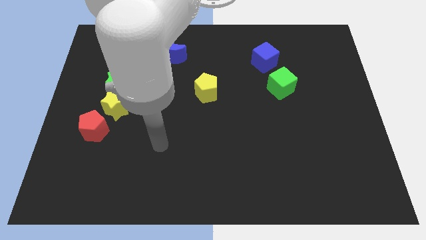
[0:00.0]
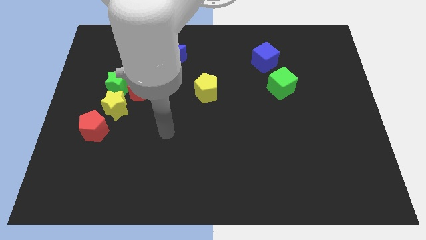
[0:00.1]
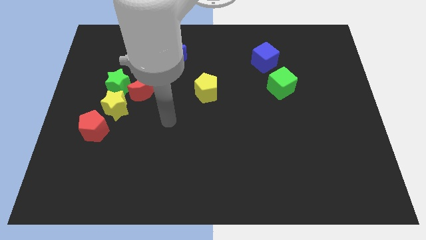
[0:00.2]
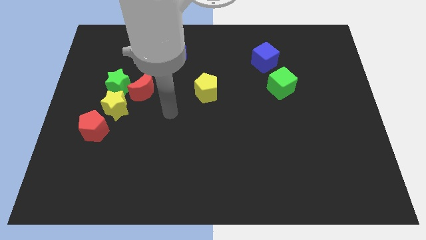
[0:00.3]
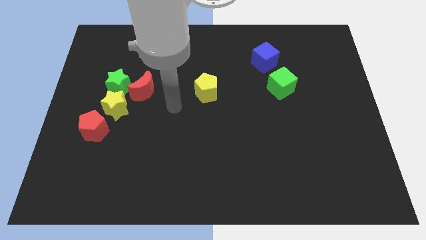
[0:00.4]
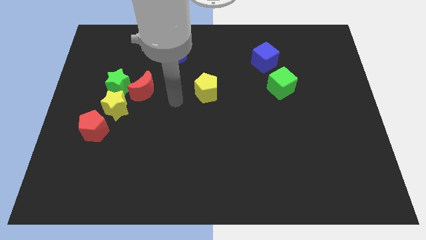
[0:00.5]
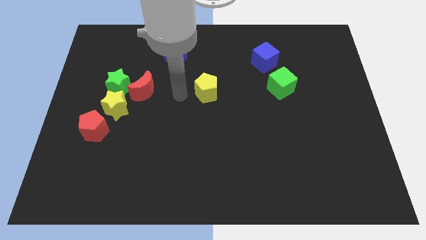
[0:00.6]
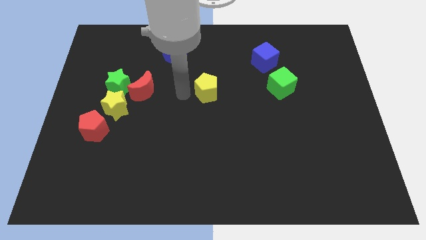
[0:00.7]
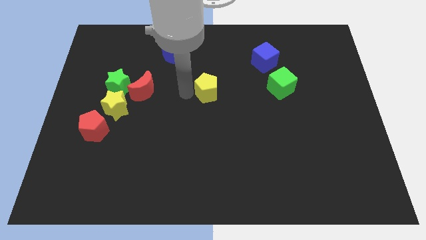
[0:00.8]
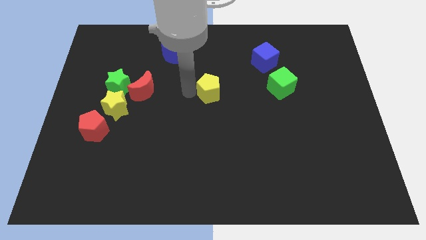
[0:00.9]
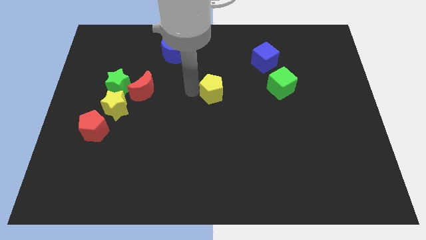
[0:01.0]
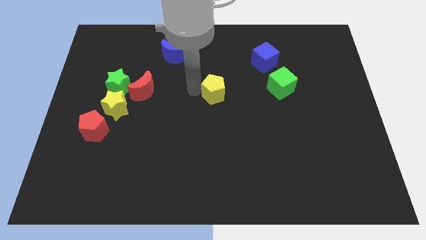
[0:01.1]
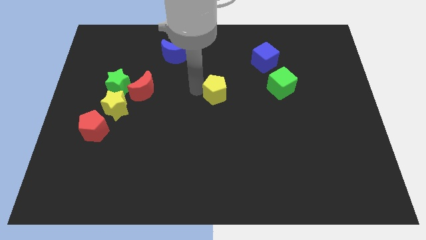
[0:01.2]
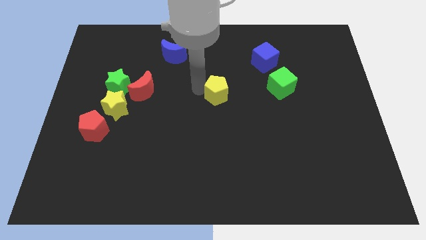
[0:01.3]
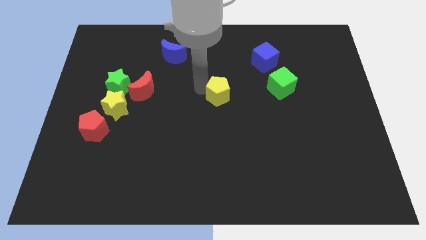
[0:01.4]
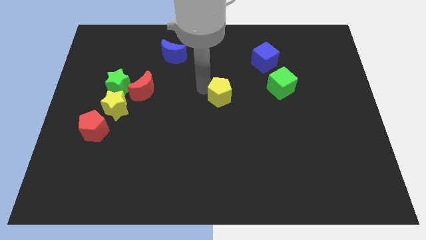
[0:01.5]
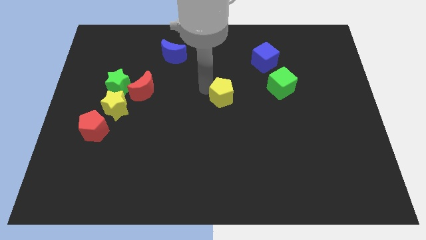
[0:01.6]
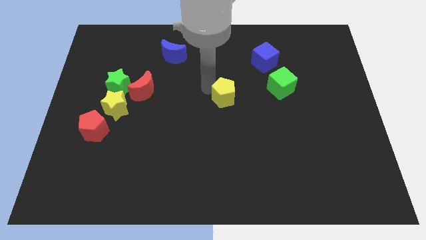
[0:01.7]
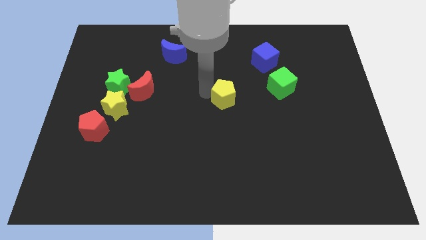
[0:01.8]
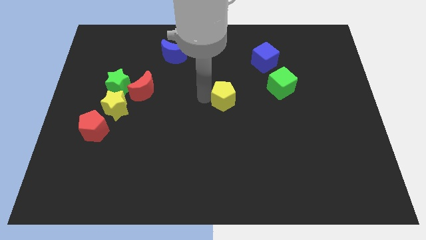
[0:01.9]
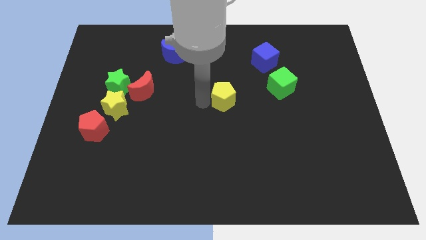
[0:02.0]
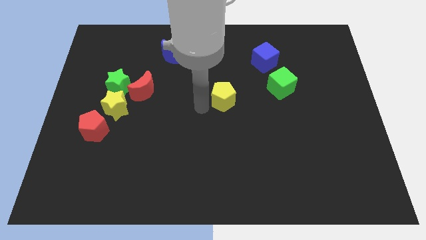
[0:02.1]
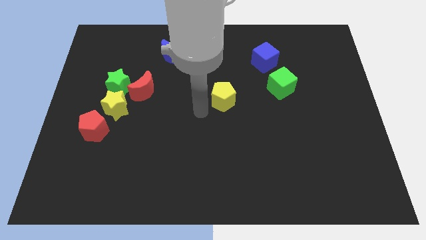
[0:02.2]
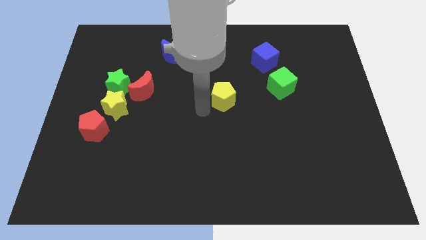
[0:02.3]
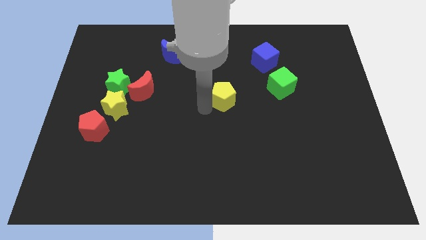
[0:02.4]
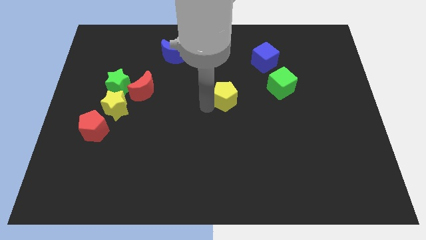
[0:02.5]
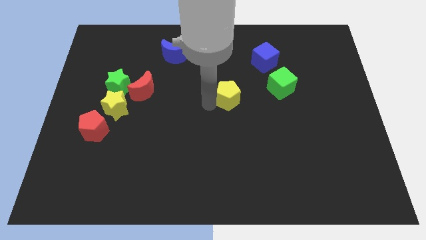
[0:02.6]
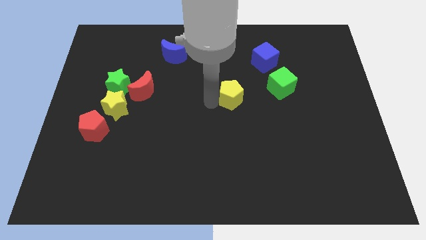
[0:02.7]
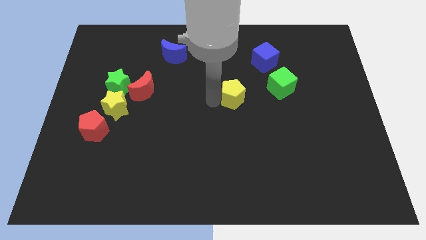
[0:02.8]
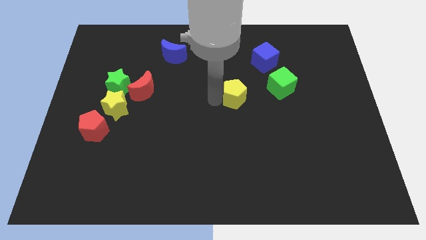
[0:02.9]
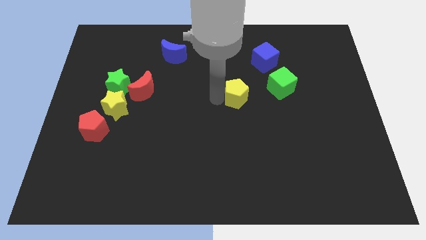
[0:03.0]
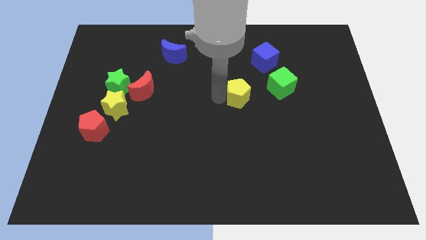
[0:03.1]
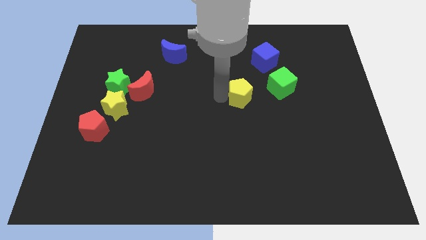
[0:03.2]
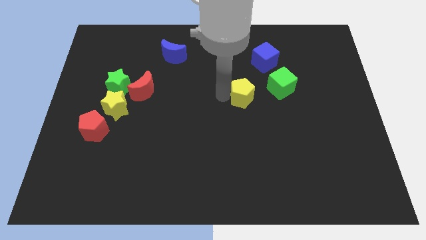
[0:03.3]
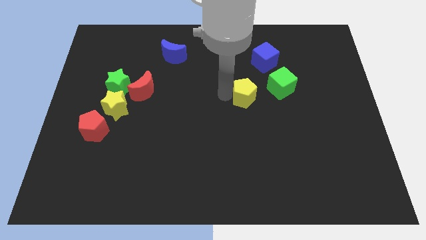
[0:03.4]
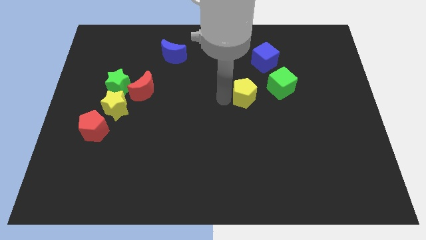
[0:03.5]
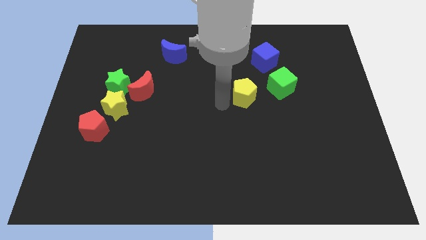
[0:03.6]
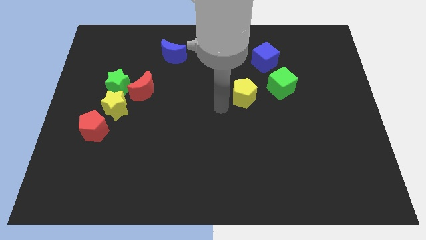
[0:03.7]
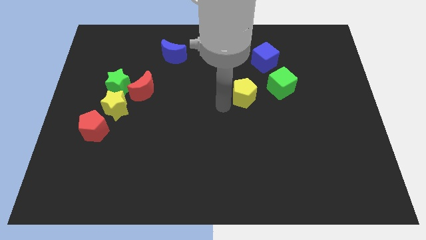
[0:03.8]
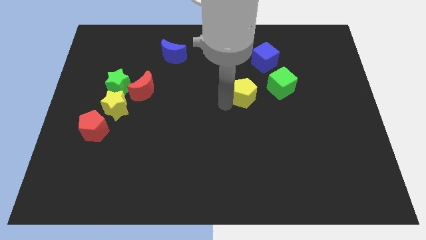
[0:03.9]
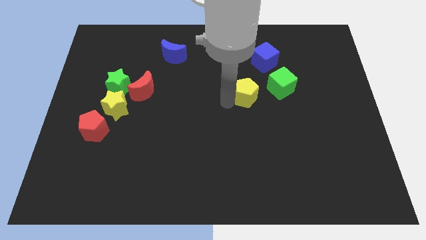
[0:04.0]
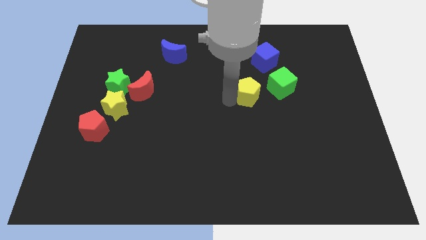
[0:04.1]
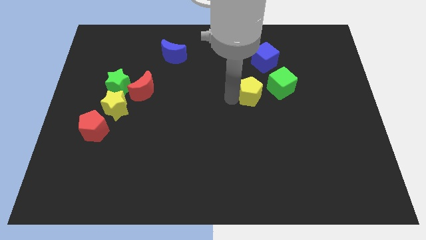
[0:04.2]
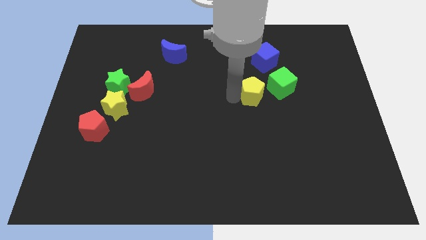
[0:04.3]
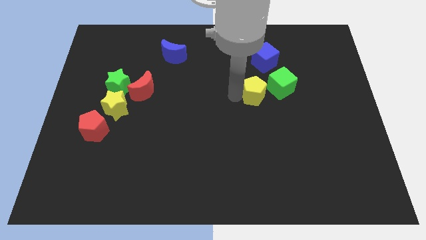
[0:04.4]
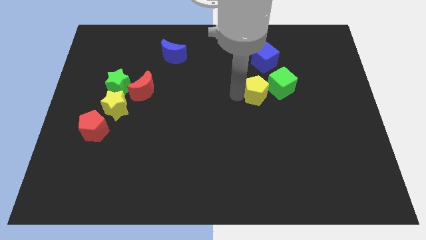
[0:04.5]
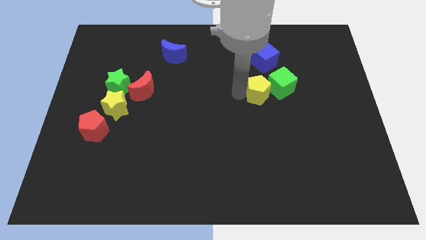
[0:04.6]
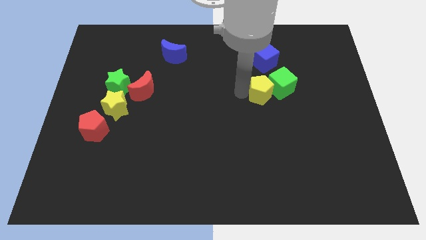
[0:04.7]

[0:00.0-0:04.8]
push the yellow pentagon towards the green cube

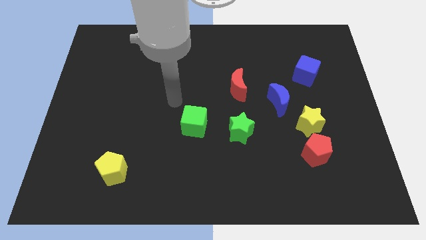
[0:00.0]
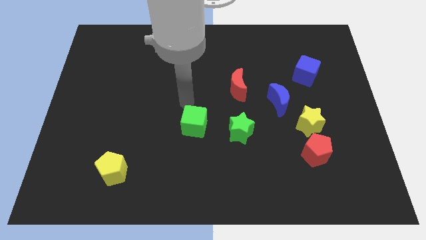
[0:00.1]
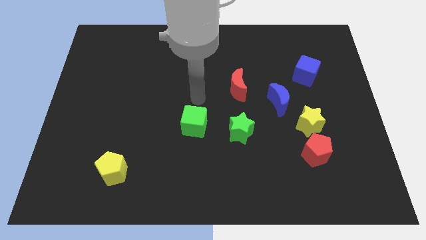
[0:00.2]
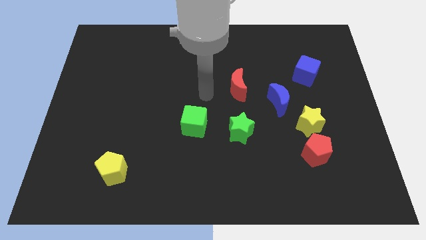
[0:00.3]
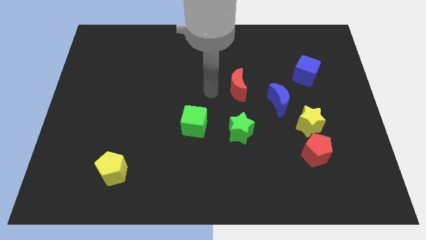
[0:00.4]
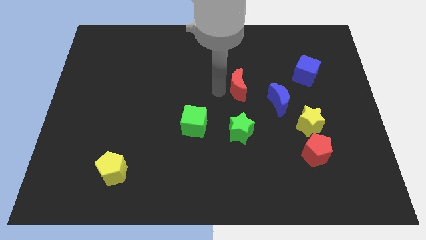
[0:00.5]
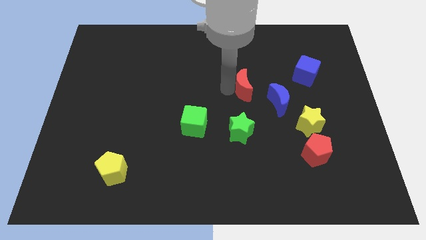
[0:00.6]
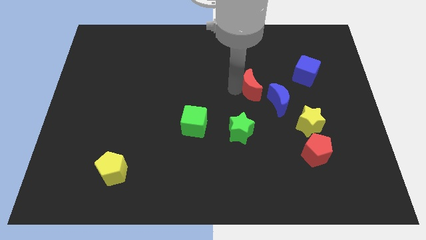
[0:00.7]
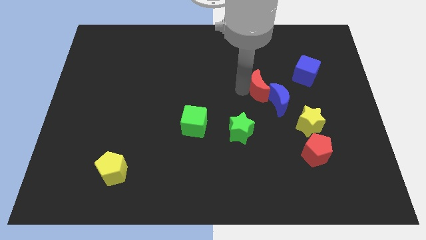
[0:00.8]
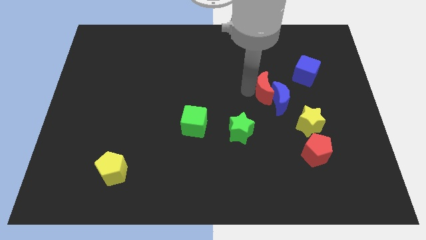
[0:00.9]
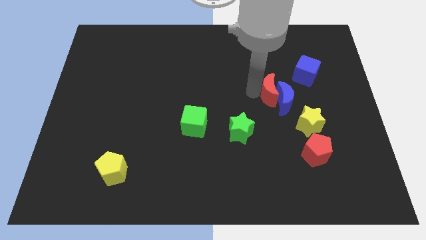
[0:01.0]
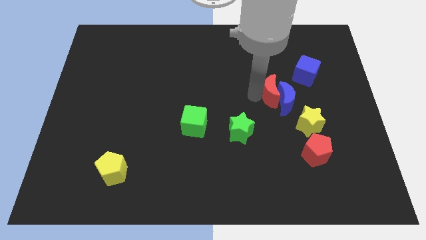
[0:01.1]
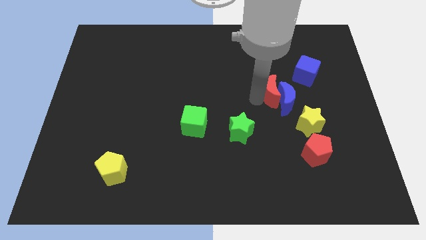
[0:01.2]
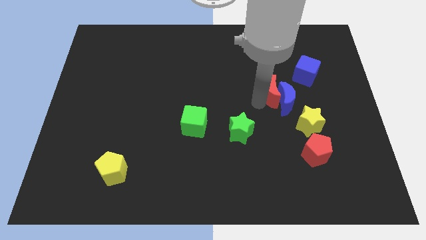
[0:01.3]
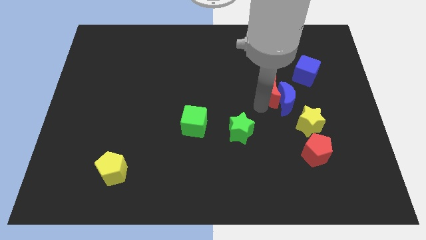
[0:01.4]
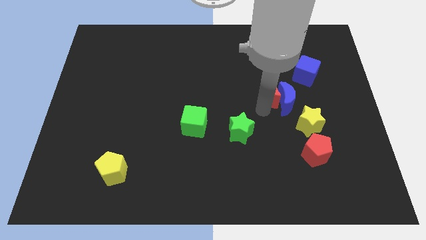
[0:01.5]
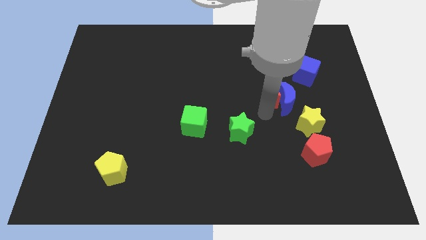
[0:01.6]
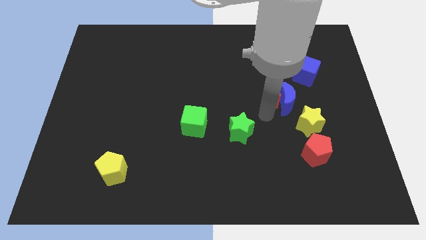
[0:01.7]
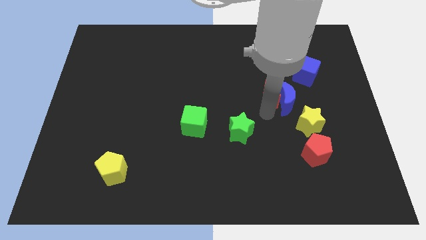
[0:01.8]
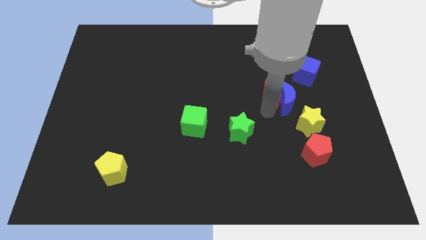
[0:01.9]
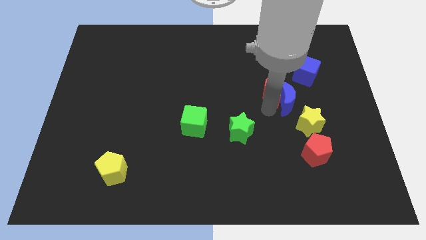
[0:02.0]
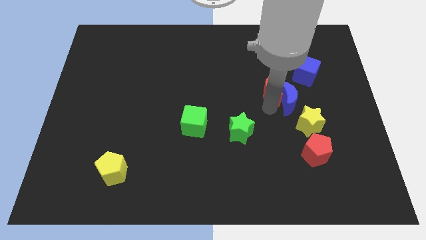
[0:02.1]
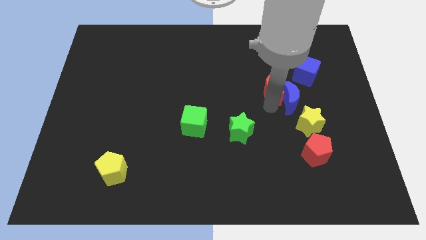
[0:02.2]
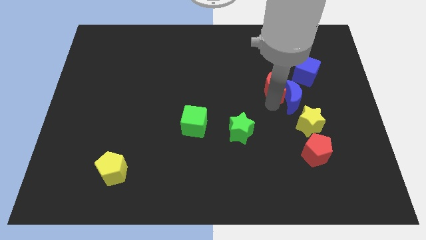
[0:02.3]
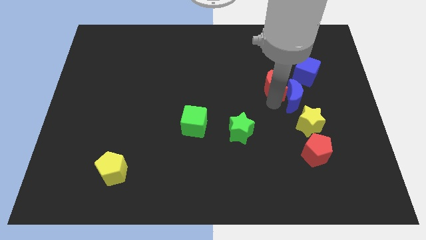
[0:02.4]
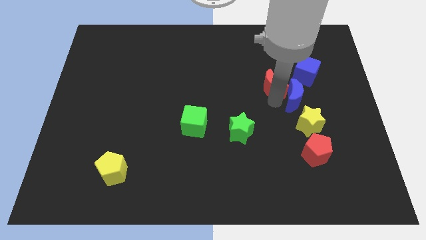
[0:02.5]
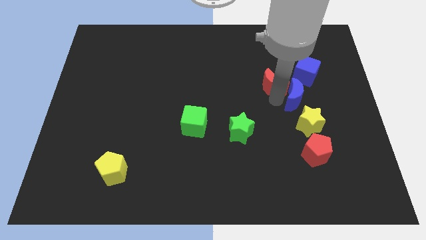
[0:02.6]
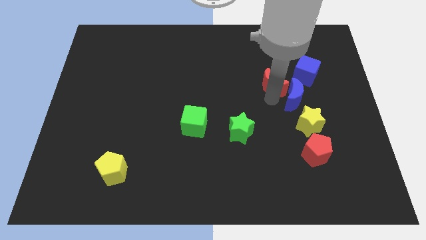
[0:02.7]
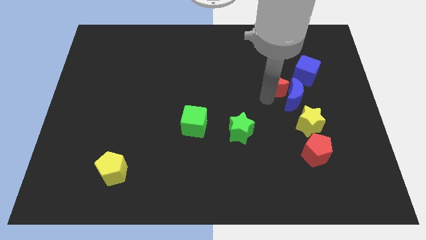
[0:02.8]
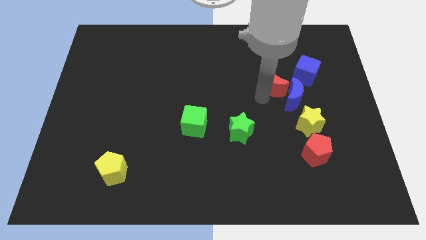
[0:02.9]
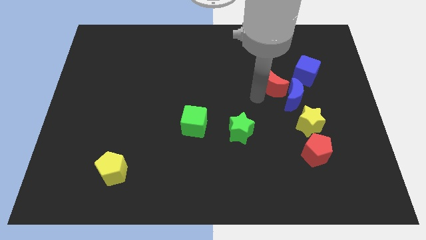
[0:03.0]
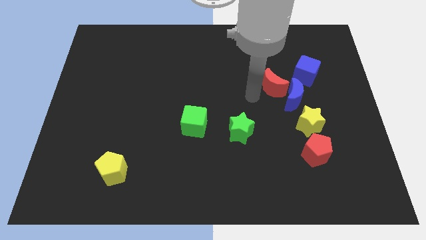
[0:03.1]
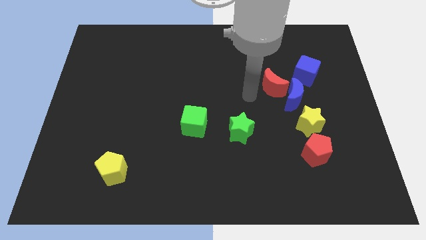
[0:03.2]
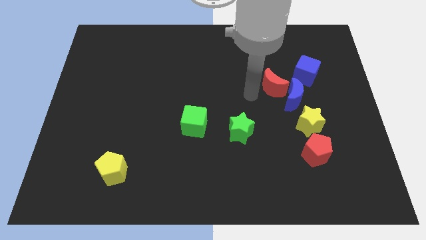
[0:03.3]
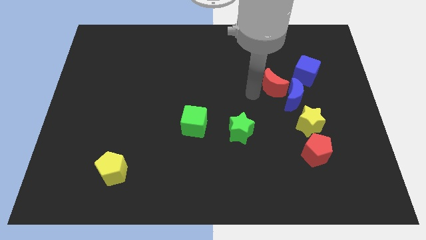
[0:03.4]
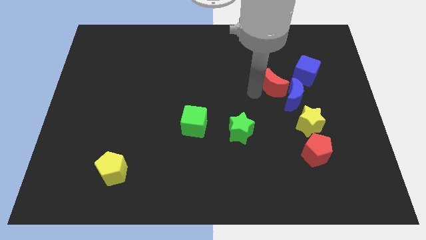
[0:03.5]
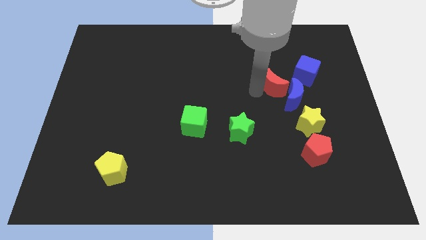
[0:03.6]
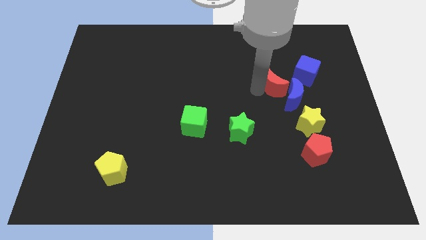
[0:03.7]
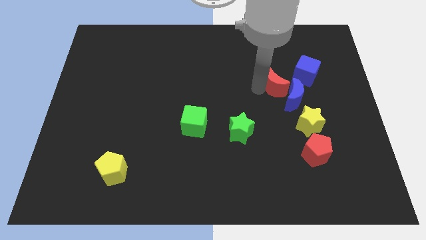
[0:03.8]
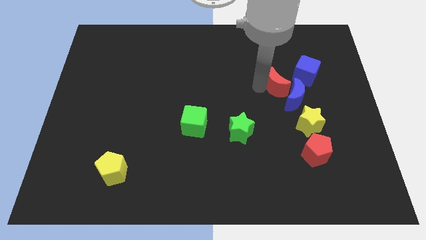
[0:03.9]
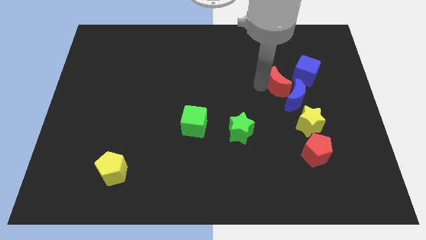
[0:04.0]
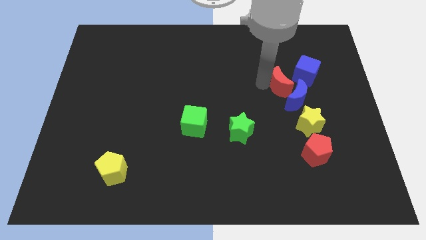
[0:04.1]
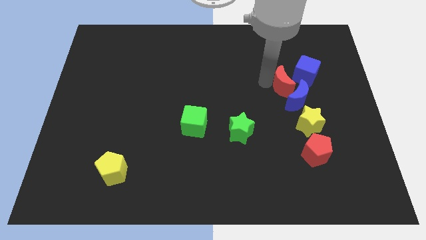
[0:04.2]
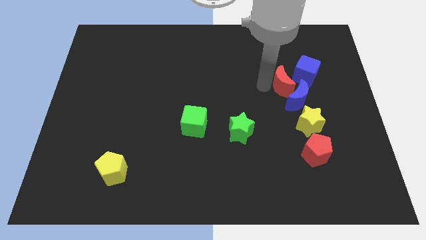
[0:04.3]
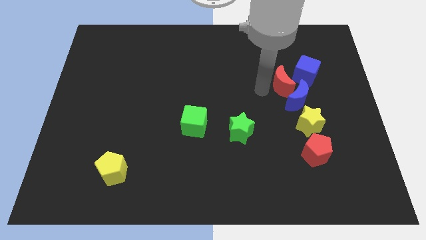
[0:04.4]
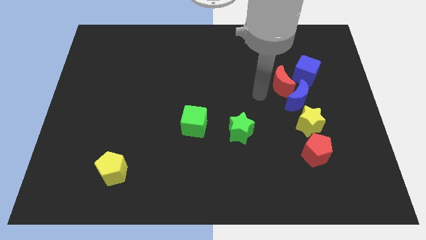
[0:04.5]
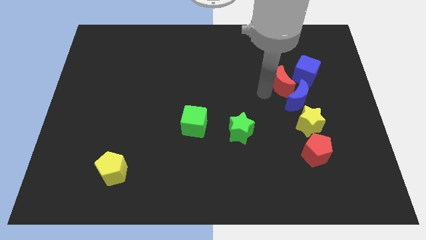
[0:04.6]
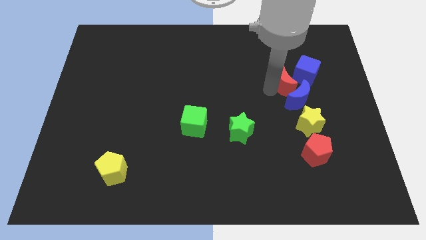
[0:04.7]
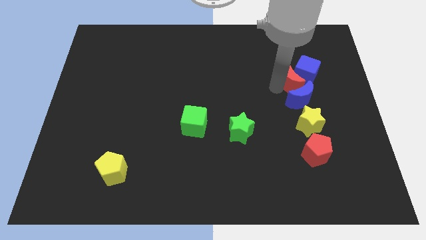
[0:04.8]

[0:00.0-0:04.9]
push the red moon to the blue cube
